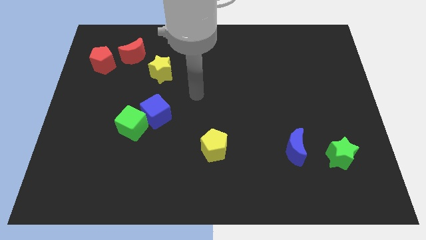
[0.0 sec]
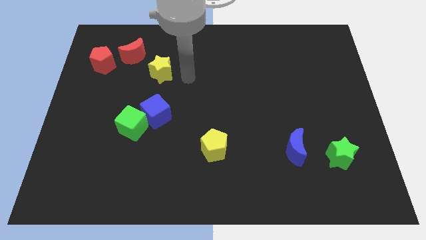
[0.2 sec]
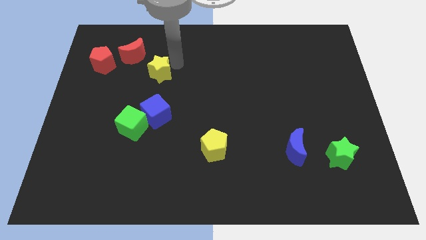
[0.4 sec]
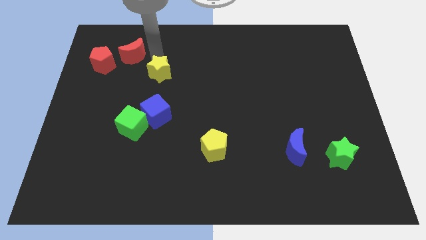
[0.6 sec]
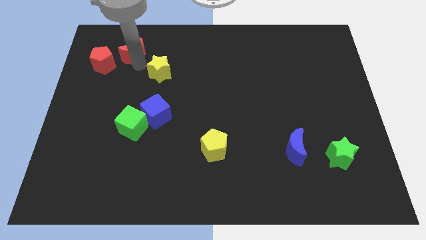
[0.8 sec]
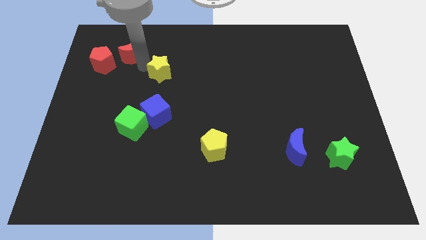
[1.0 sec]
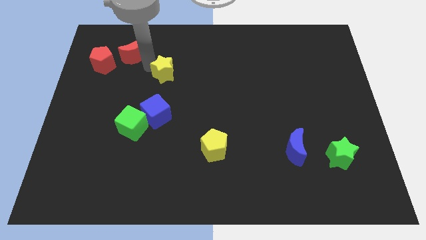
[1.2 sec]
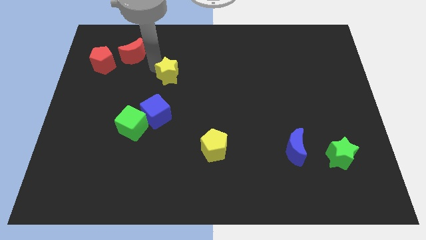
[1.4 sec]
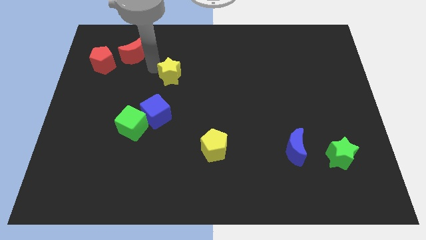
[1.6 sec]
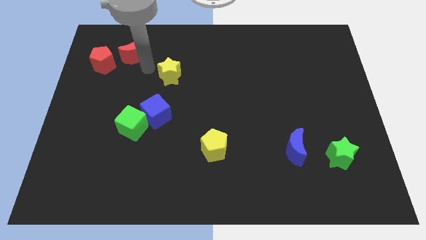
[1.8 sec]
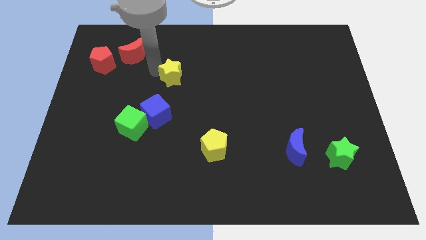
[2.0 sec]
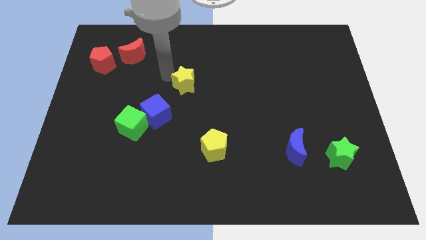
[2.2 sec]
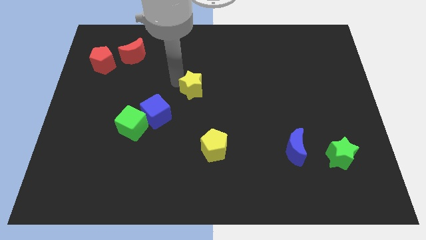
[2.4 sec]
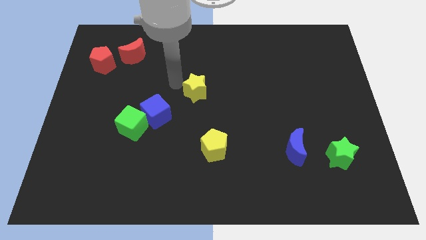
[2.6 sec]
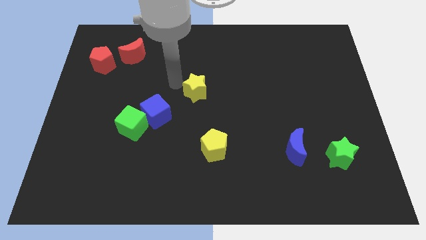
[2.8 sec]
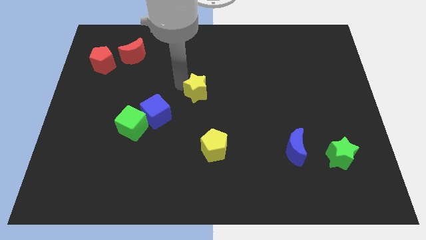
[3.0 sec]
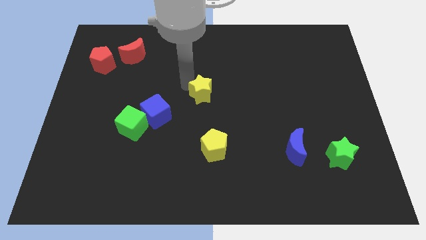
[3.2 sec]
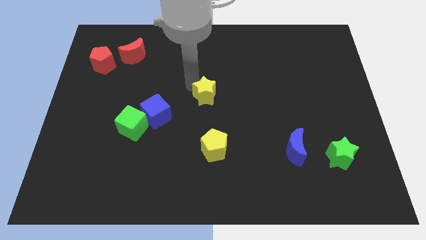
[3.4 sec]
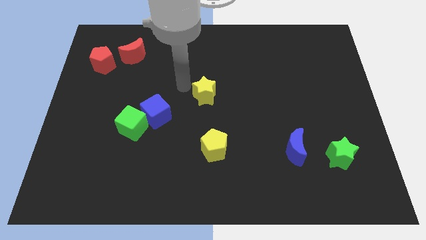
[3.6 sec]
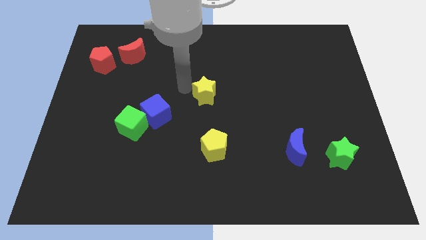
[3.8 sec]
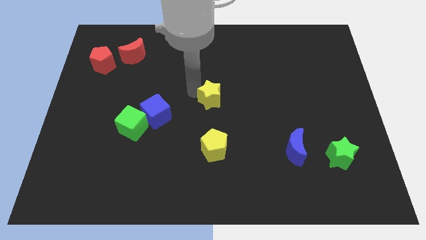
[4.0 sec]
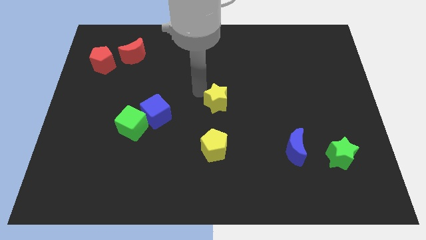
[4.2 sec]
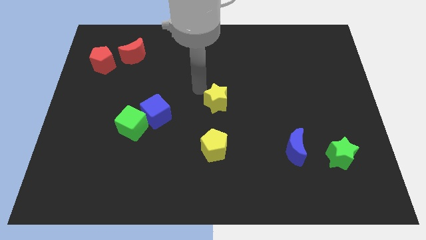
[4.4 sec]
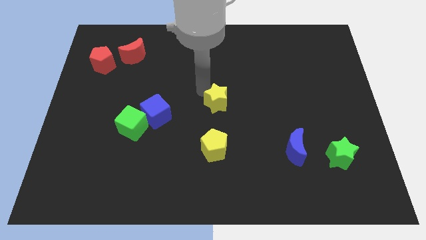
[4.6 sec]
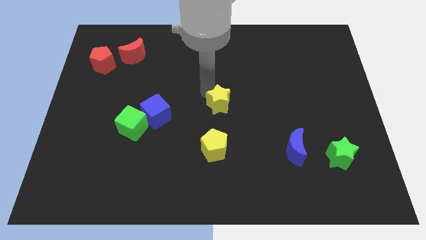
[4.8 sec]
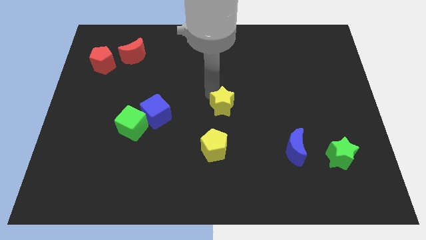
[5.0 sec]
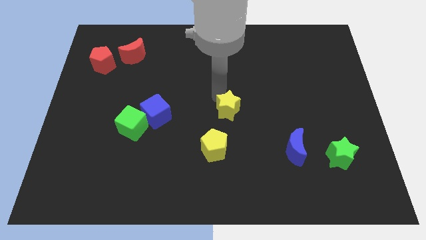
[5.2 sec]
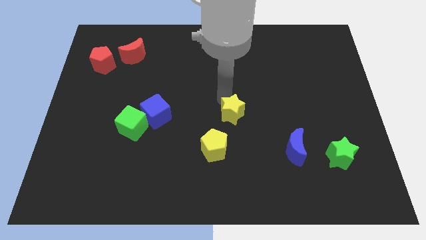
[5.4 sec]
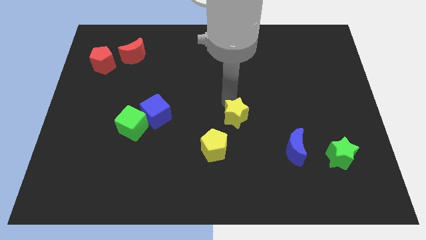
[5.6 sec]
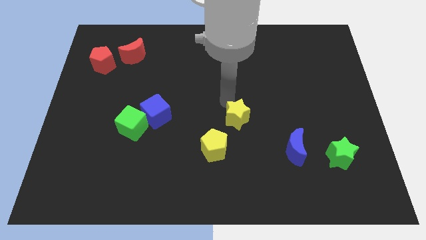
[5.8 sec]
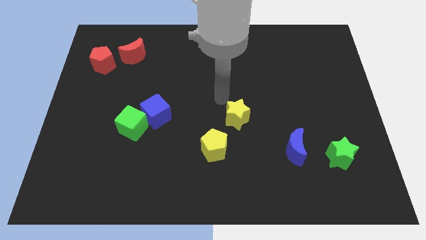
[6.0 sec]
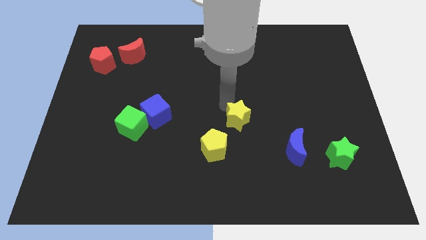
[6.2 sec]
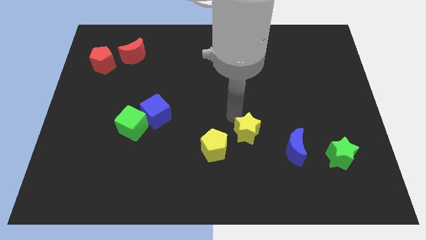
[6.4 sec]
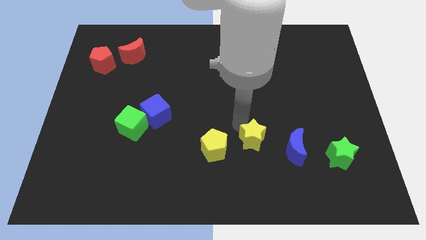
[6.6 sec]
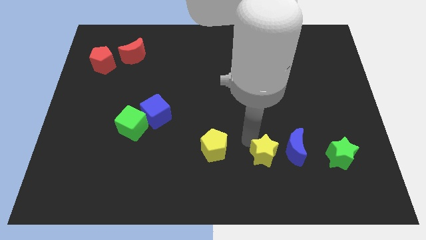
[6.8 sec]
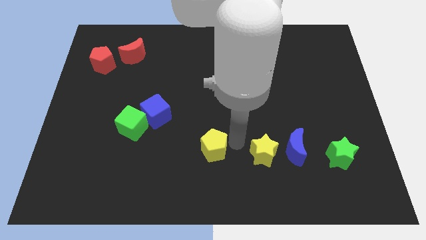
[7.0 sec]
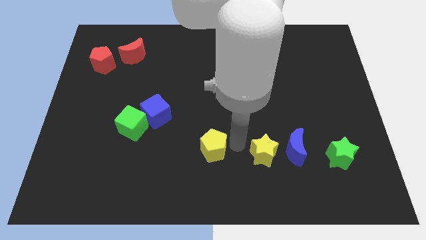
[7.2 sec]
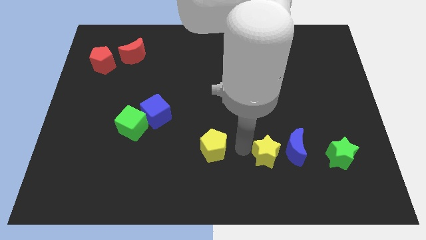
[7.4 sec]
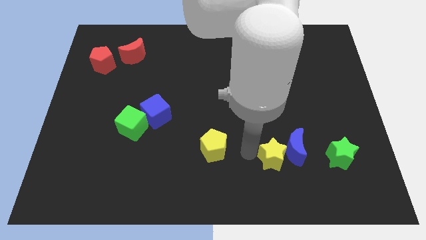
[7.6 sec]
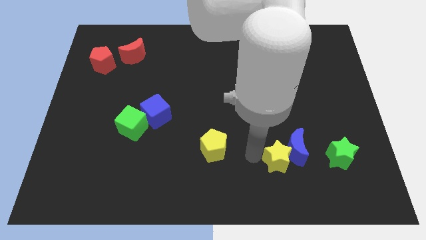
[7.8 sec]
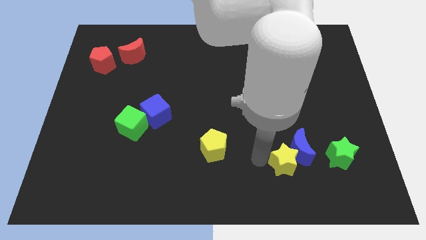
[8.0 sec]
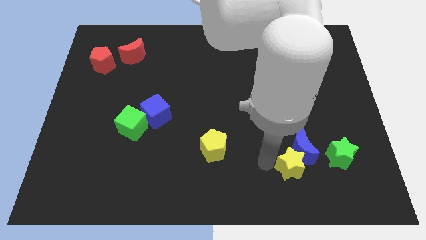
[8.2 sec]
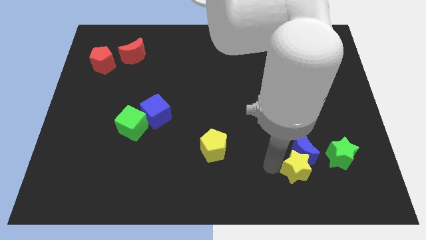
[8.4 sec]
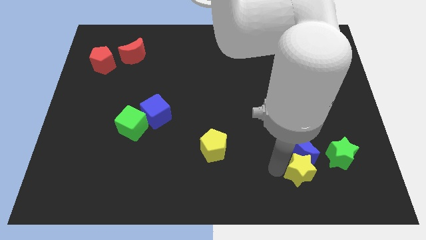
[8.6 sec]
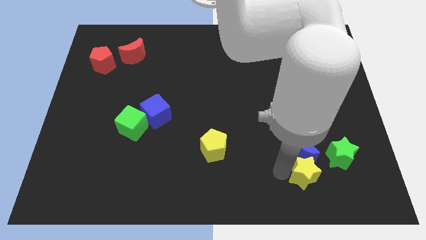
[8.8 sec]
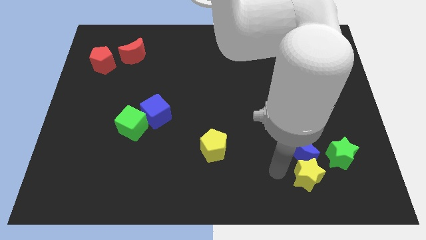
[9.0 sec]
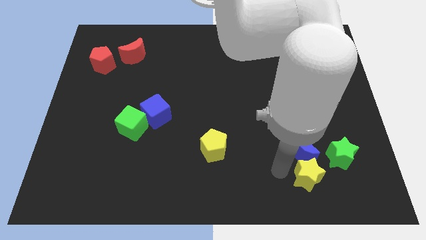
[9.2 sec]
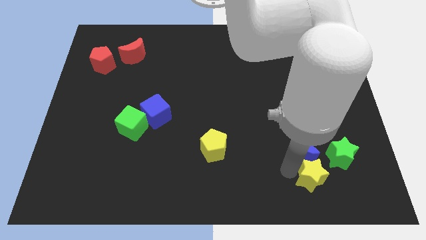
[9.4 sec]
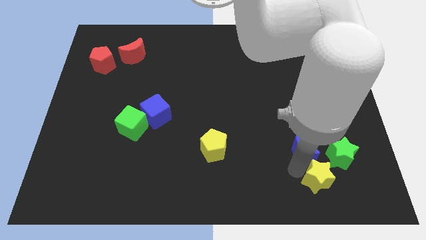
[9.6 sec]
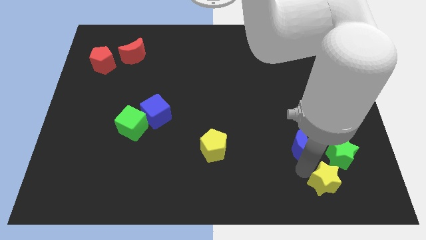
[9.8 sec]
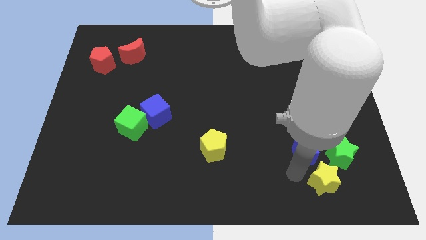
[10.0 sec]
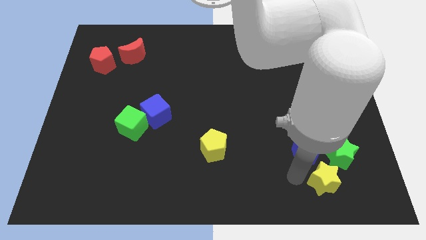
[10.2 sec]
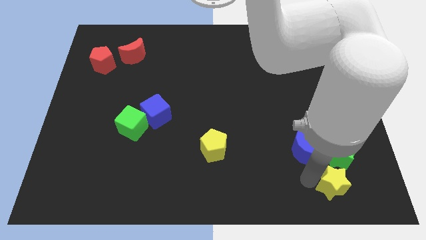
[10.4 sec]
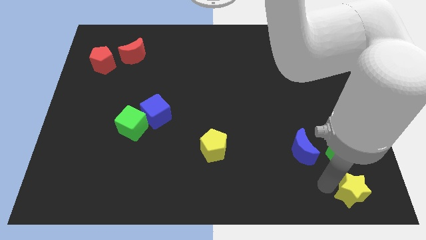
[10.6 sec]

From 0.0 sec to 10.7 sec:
move the yellow star to the lower right corner

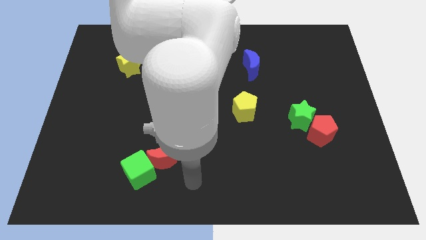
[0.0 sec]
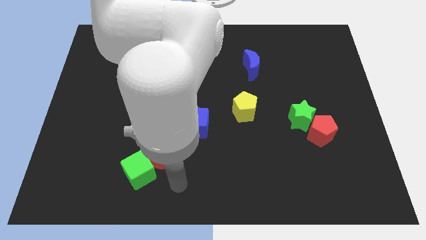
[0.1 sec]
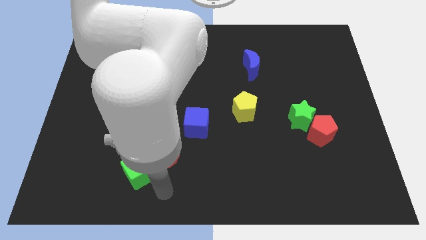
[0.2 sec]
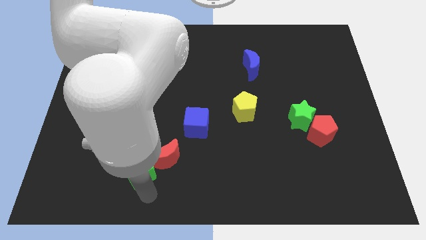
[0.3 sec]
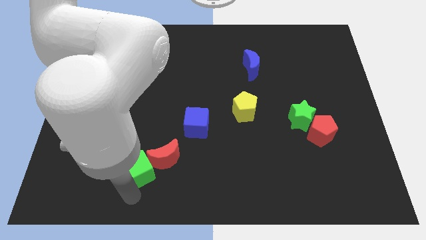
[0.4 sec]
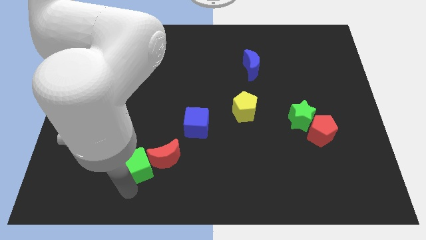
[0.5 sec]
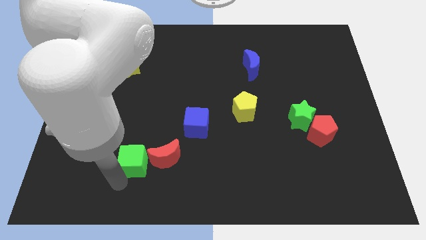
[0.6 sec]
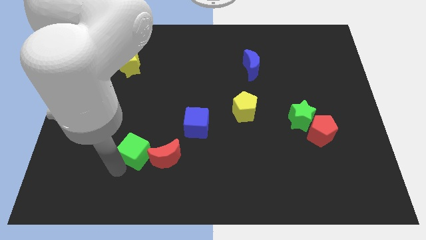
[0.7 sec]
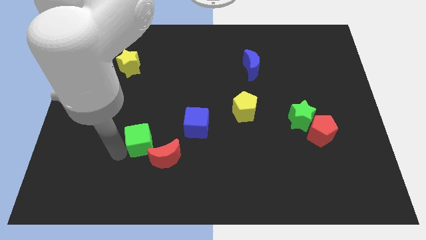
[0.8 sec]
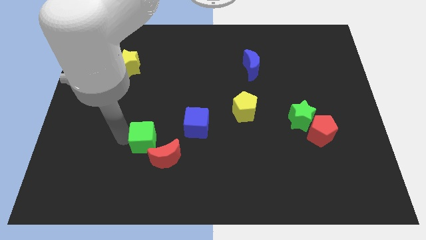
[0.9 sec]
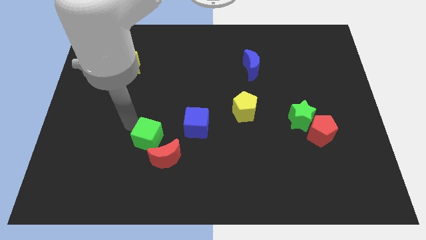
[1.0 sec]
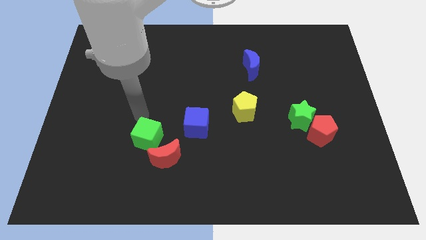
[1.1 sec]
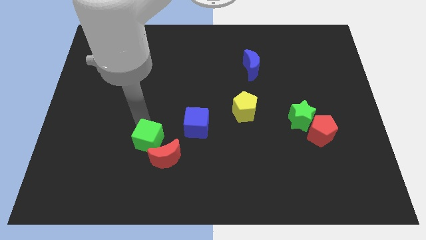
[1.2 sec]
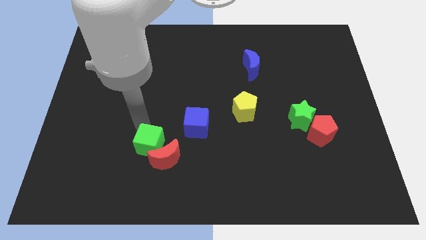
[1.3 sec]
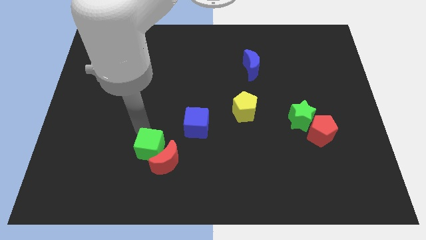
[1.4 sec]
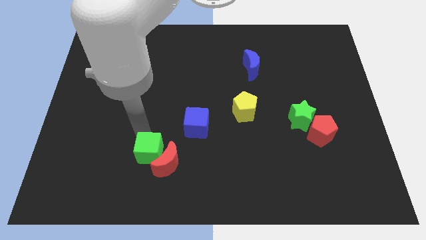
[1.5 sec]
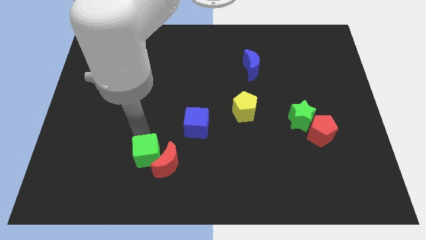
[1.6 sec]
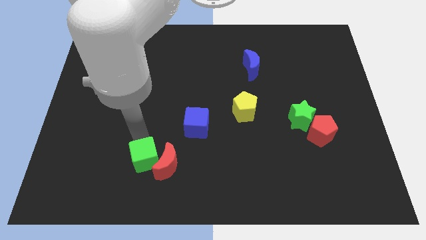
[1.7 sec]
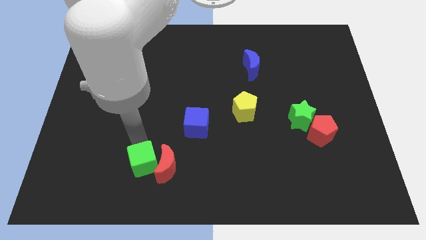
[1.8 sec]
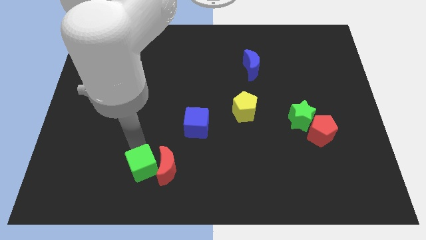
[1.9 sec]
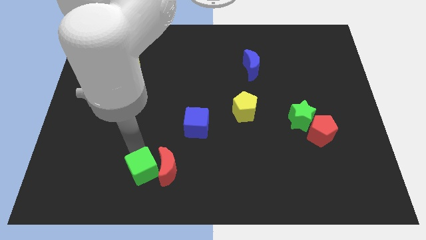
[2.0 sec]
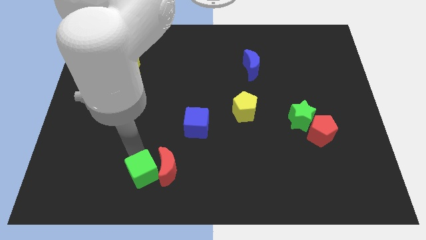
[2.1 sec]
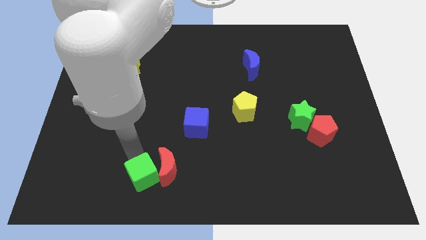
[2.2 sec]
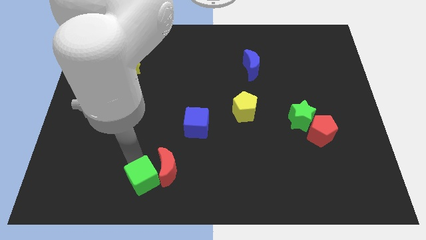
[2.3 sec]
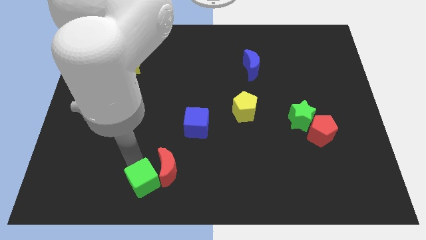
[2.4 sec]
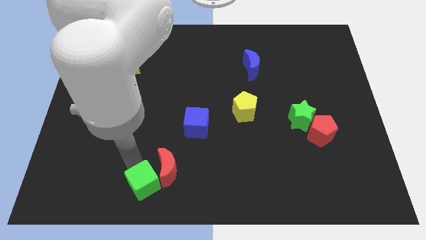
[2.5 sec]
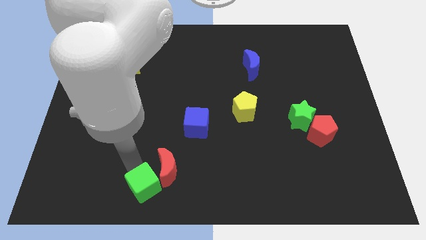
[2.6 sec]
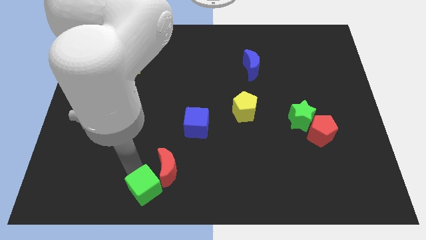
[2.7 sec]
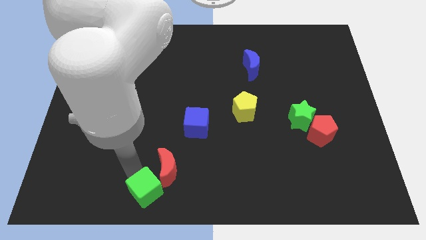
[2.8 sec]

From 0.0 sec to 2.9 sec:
push the green cube to the bottom
